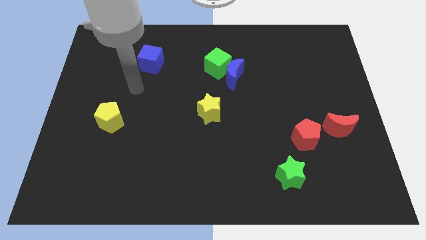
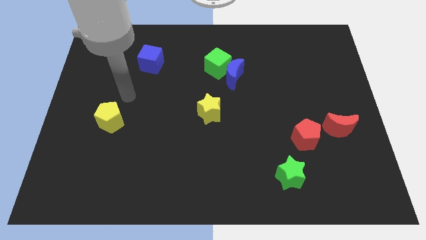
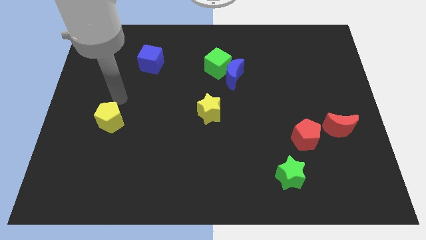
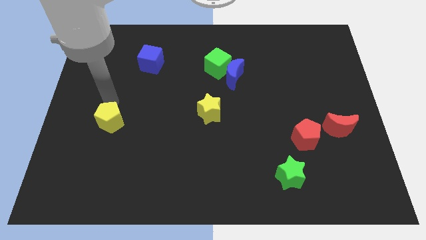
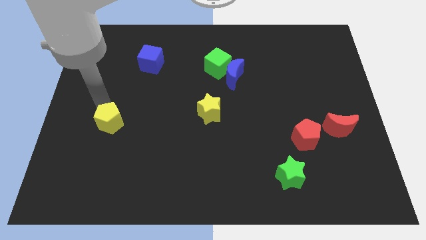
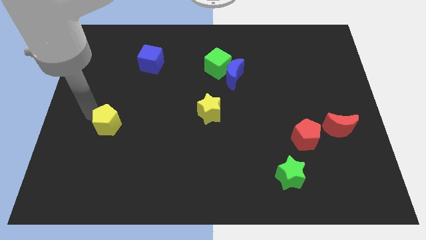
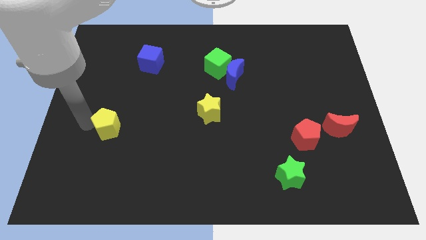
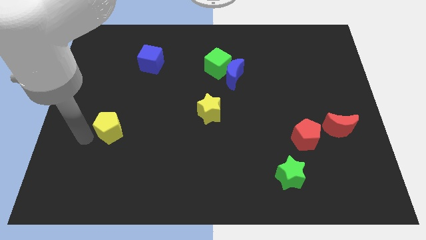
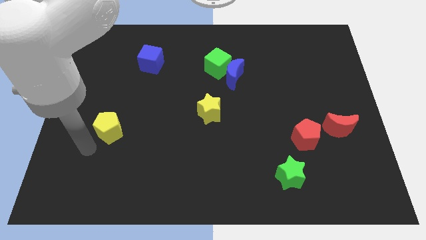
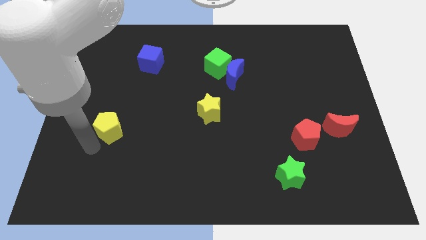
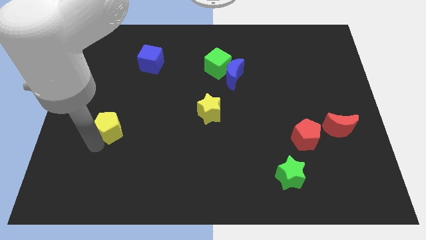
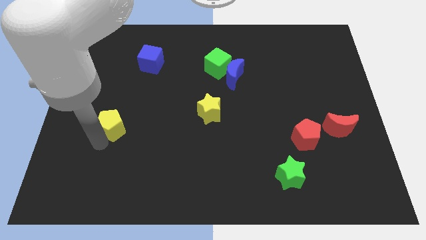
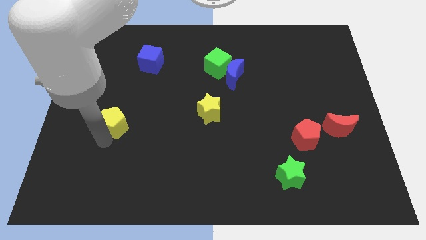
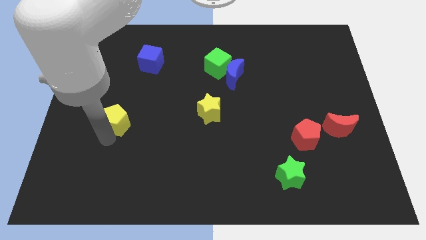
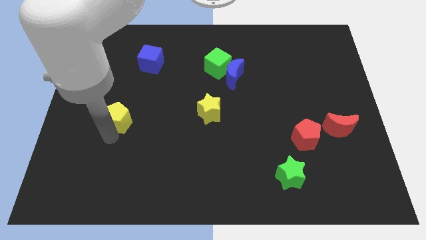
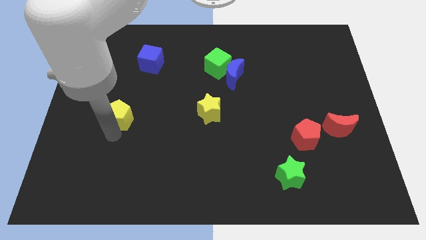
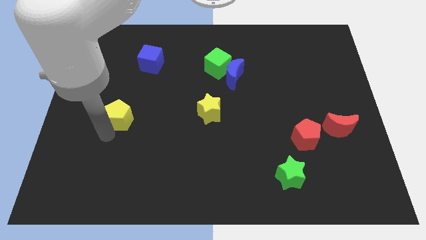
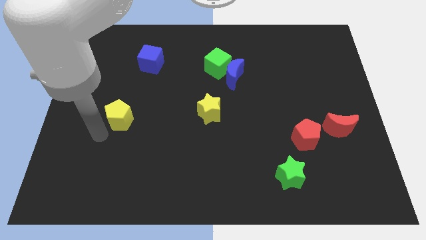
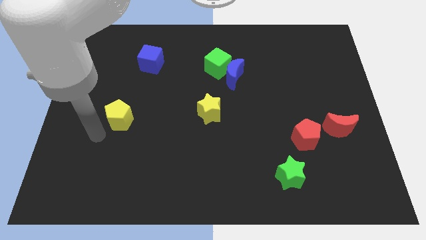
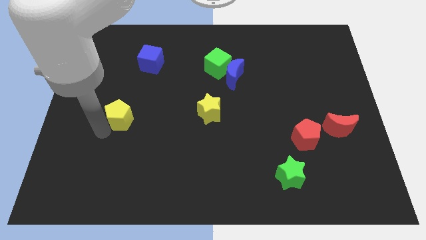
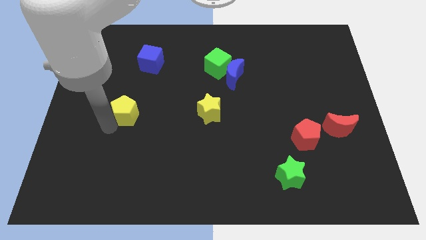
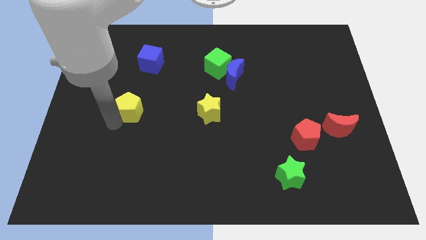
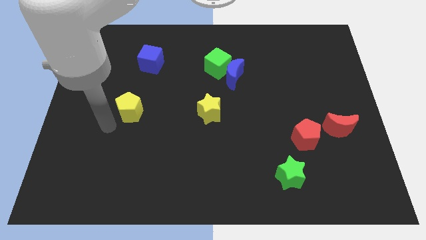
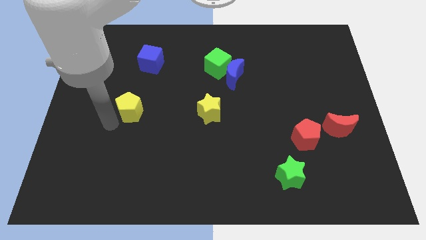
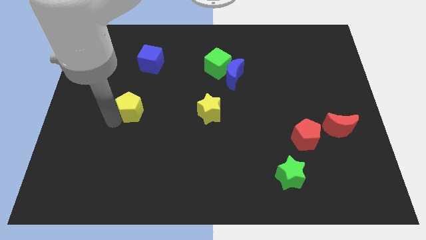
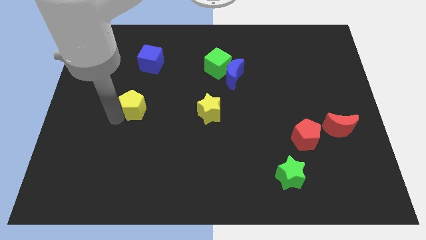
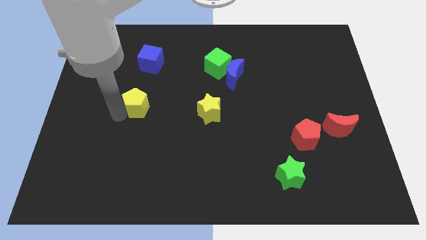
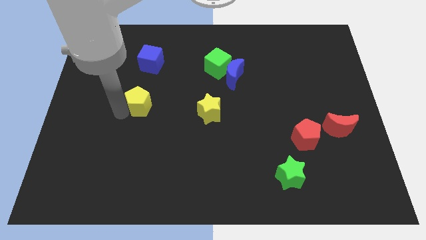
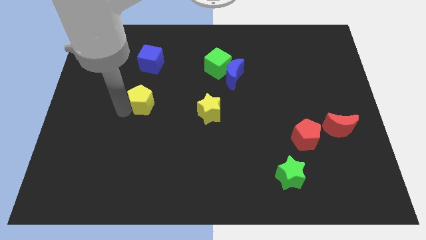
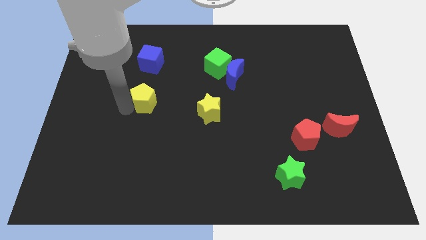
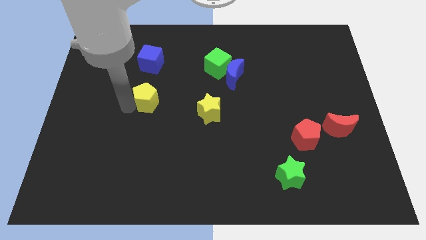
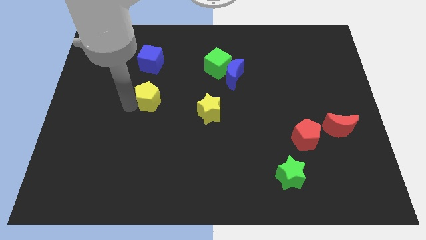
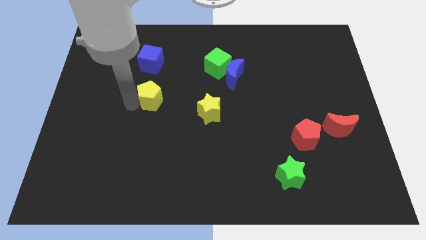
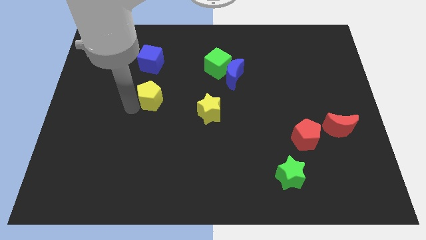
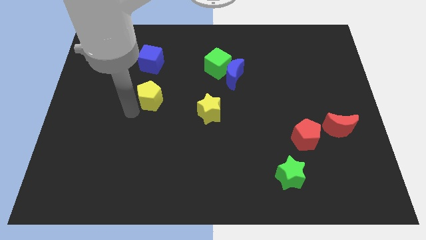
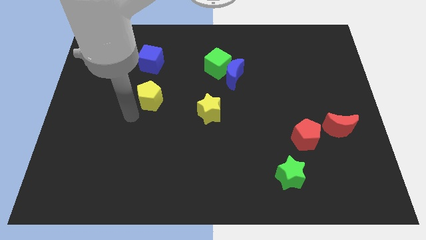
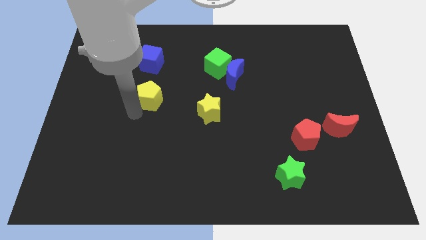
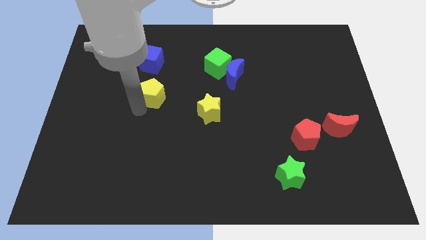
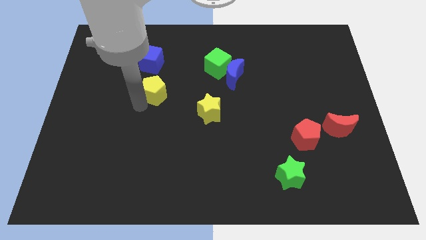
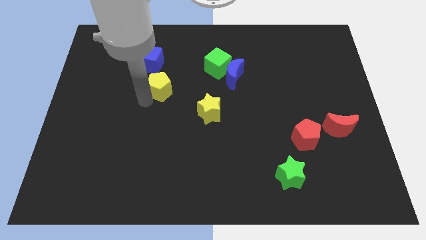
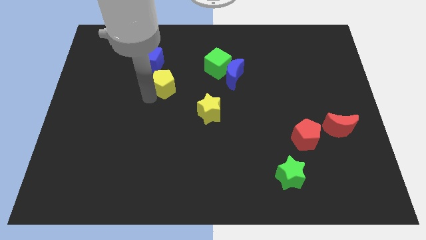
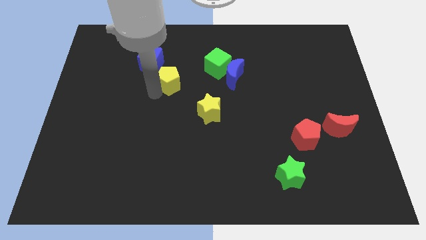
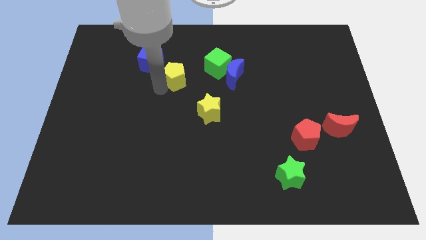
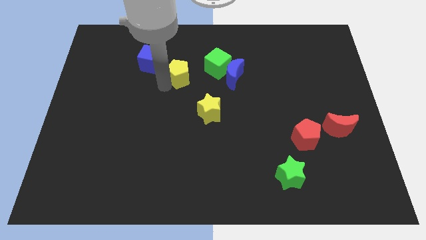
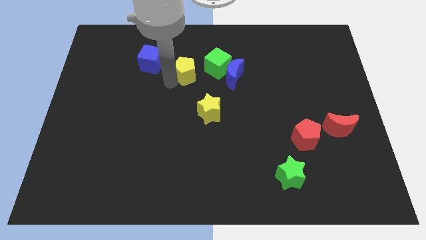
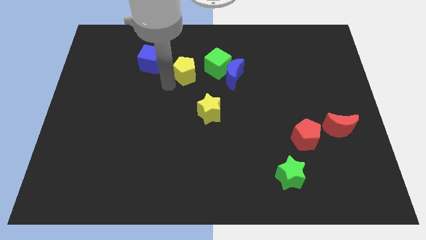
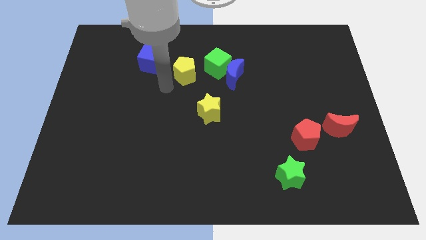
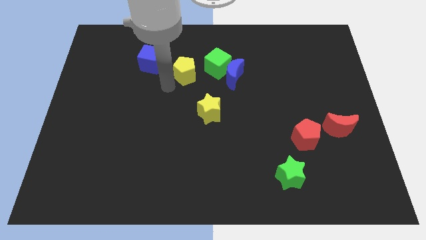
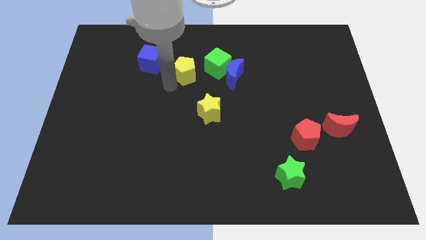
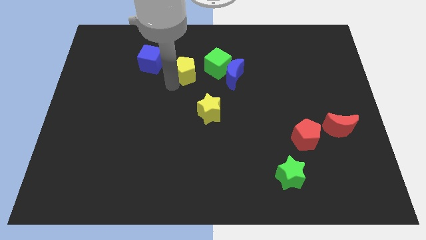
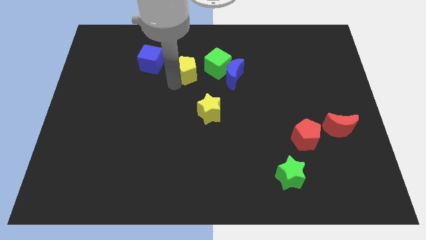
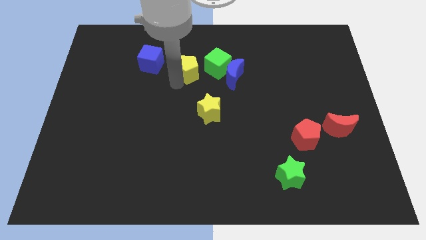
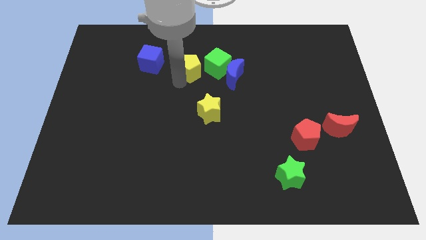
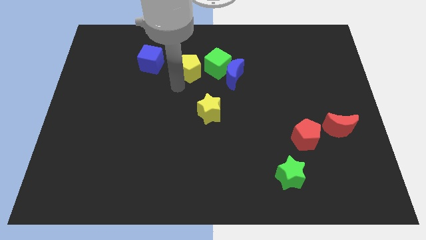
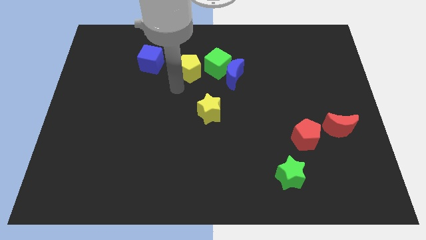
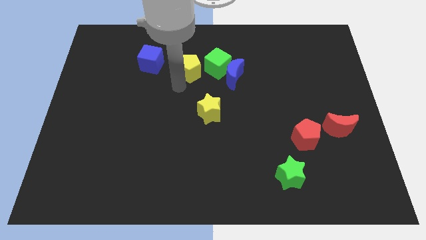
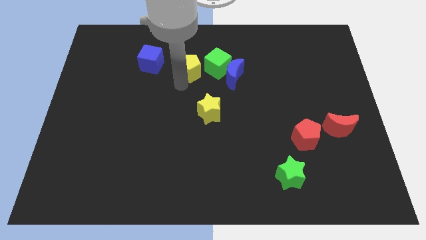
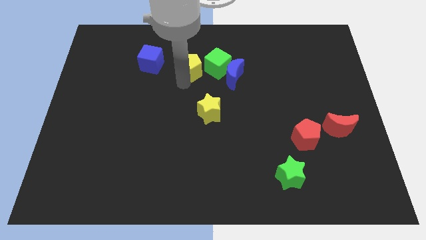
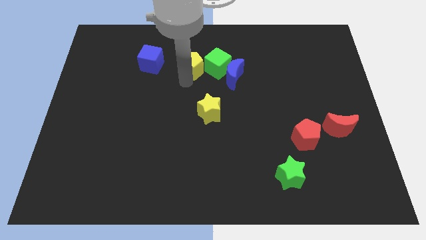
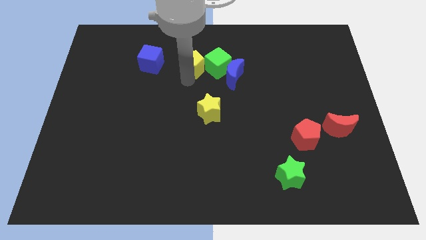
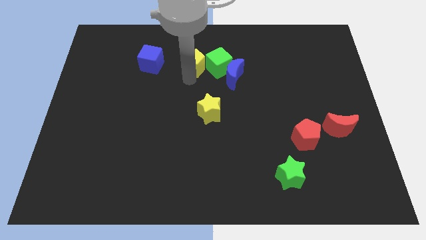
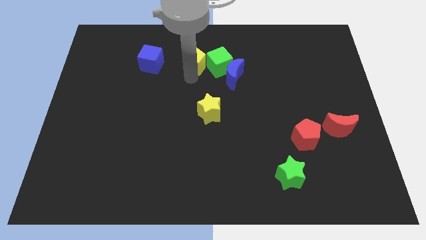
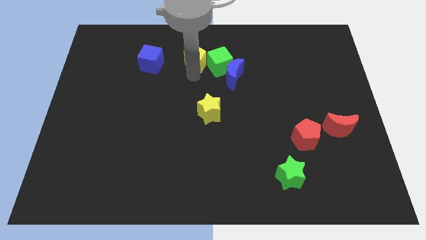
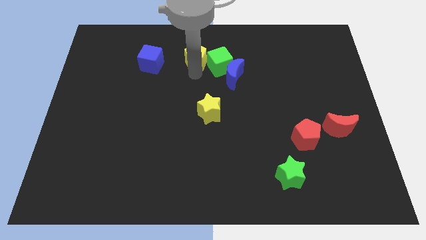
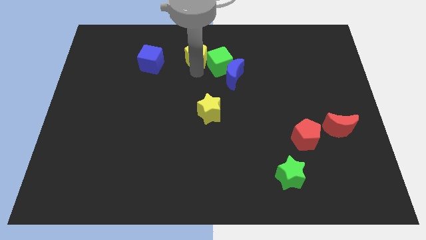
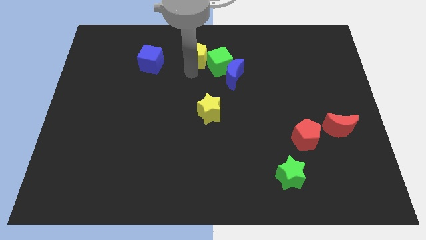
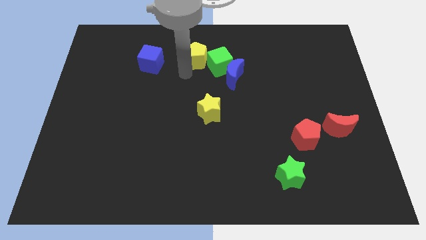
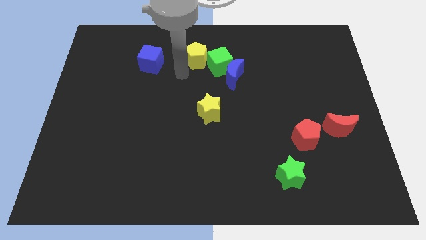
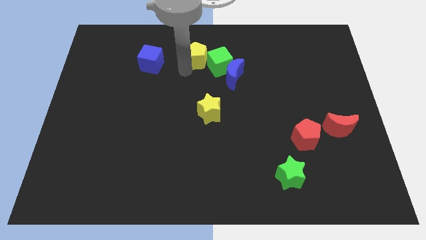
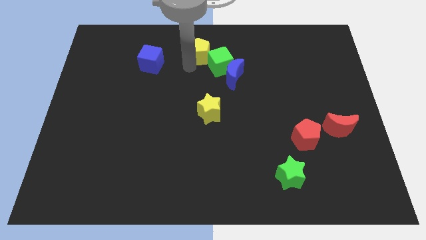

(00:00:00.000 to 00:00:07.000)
move the yellow pentagon to the top side

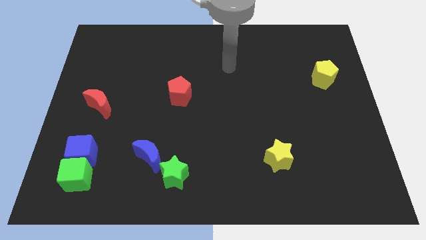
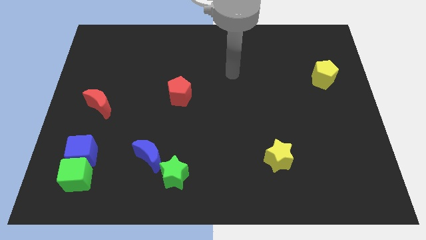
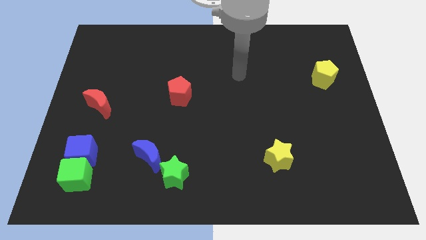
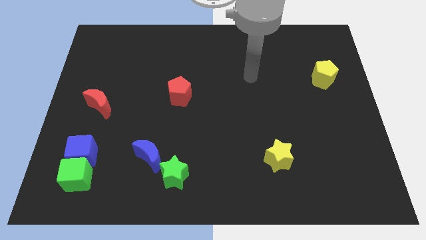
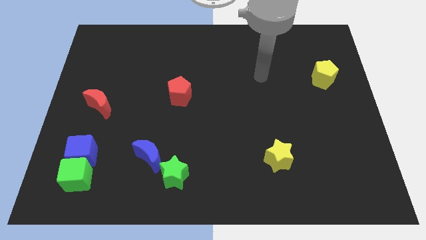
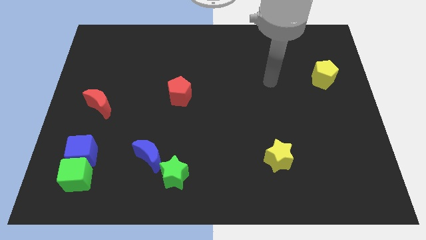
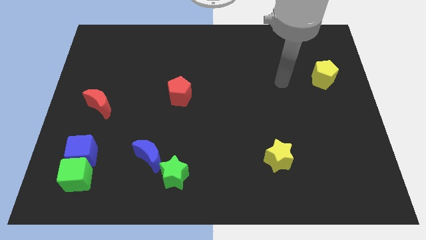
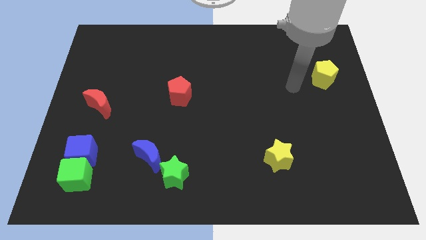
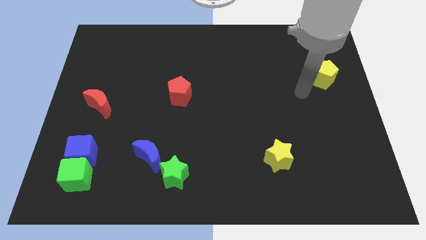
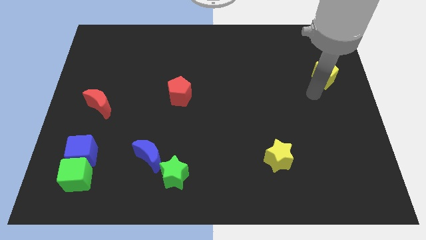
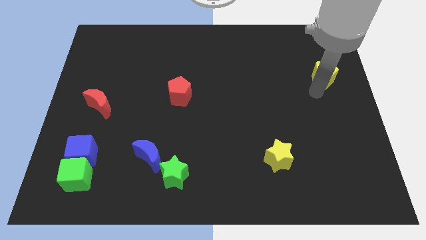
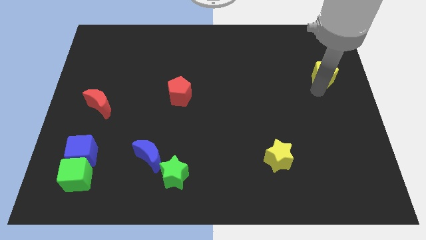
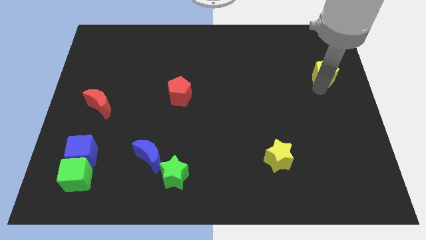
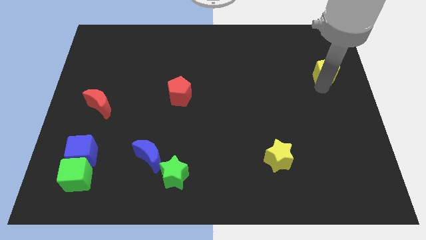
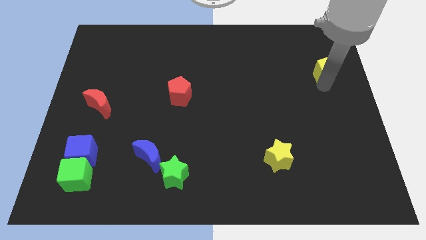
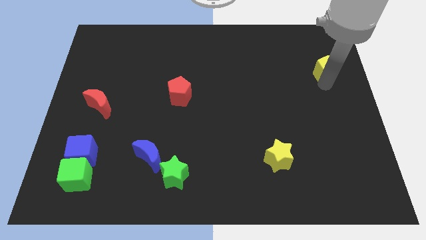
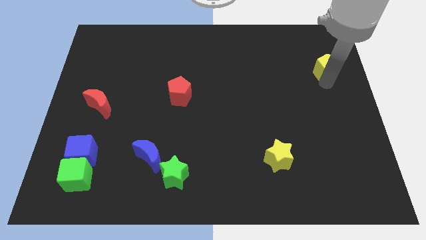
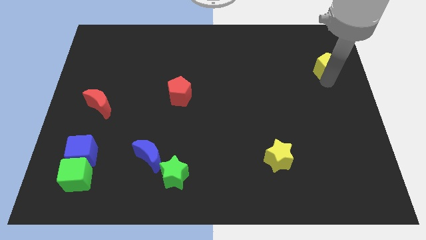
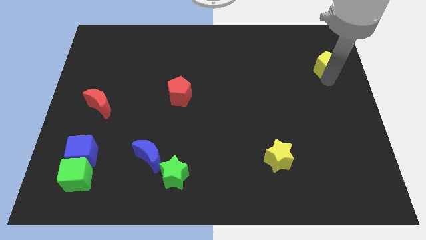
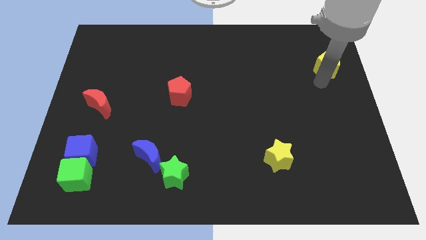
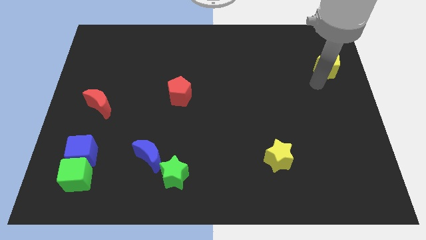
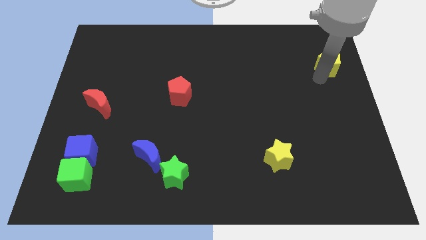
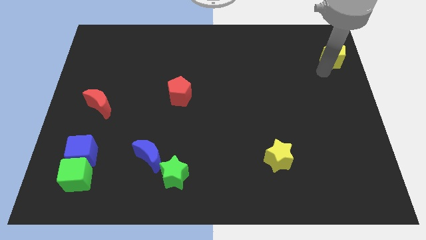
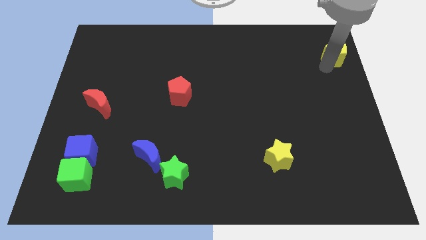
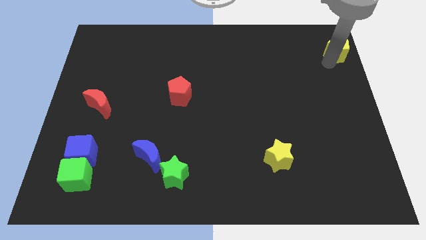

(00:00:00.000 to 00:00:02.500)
push the yellow pentagon to the top right of the board
